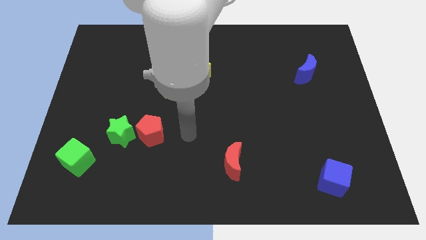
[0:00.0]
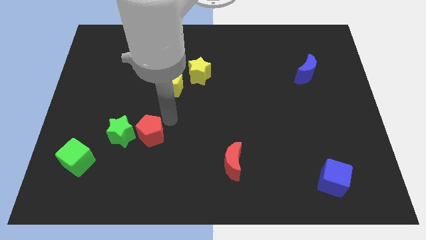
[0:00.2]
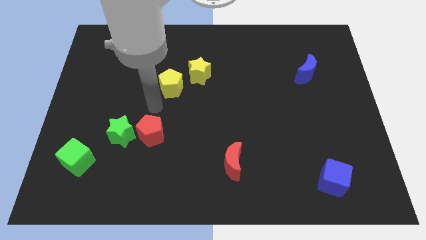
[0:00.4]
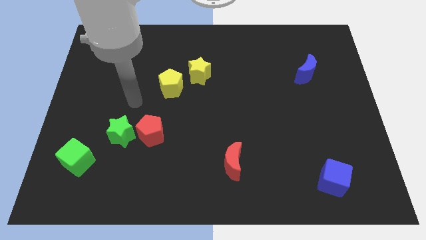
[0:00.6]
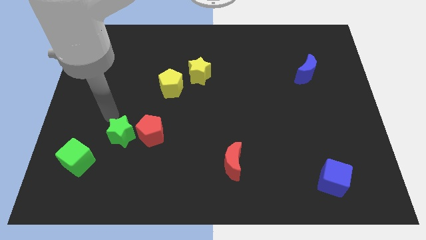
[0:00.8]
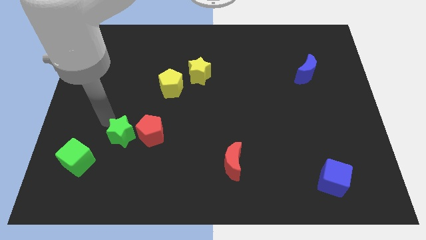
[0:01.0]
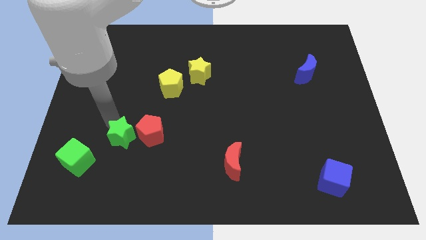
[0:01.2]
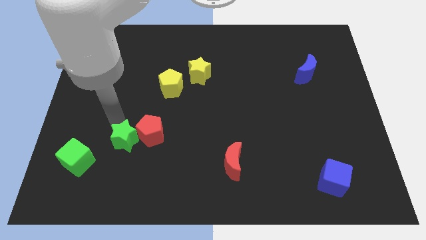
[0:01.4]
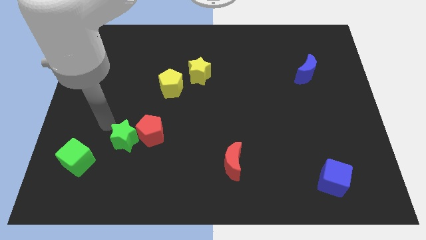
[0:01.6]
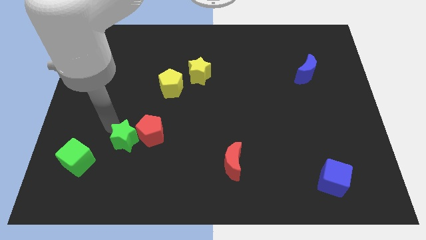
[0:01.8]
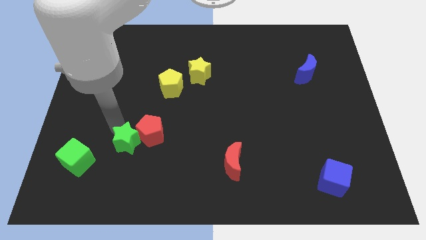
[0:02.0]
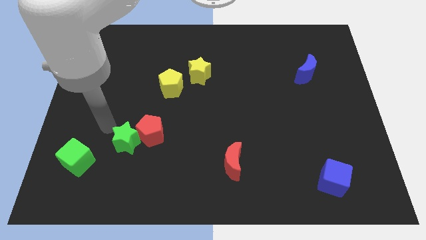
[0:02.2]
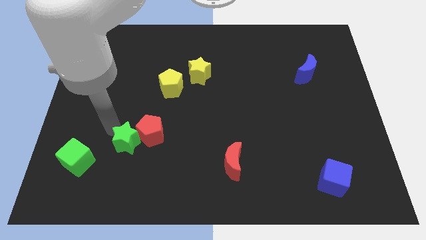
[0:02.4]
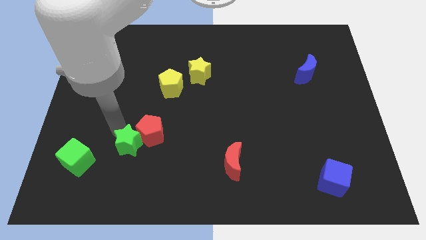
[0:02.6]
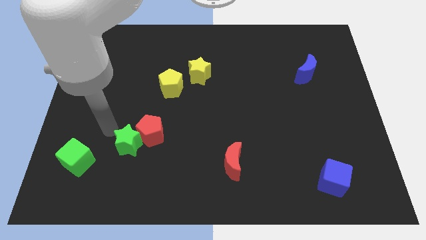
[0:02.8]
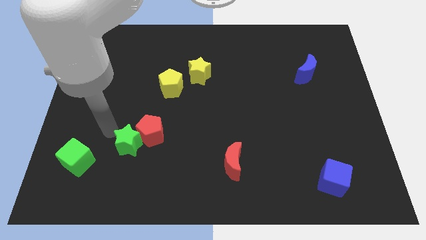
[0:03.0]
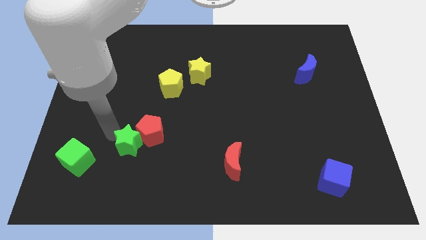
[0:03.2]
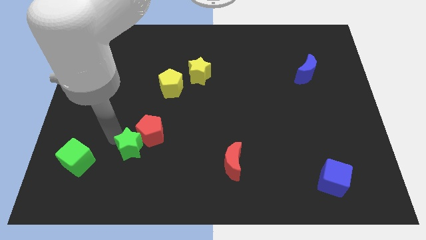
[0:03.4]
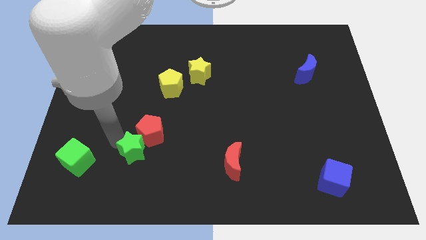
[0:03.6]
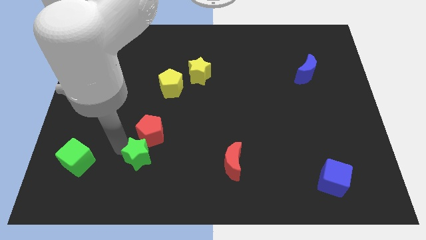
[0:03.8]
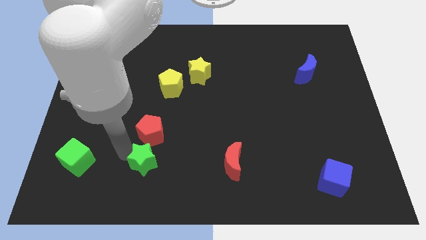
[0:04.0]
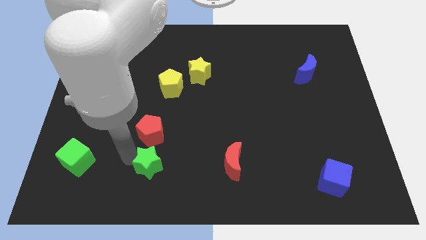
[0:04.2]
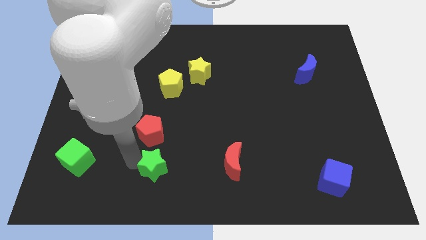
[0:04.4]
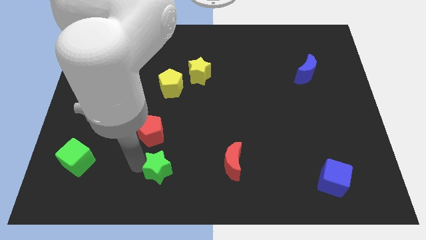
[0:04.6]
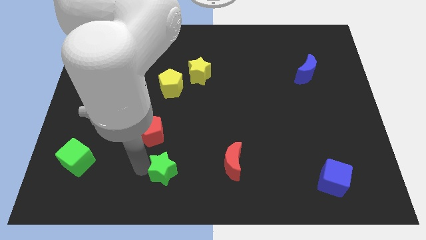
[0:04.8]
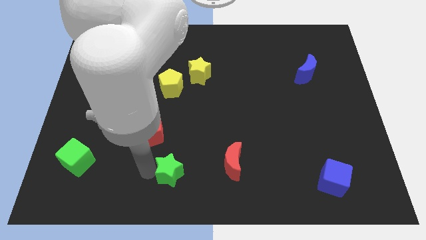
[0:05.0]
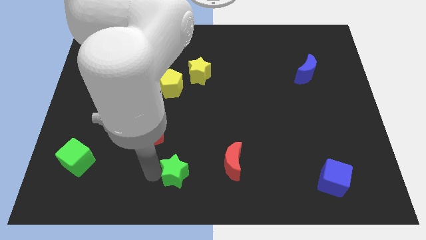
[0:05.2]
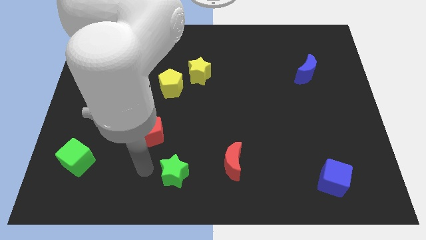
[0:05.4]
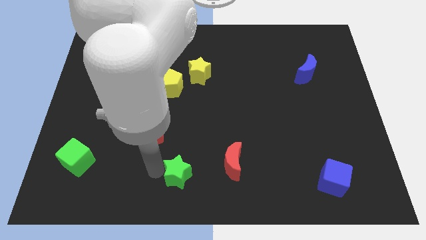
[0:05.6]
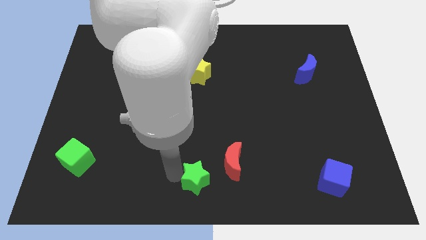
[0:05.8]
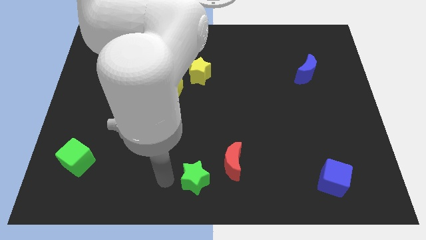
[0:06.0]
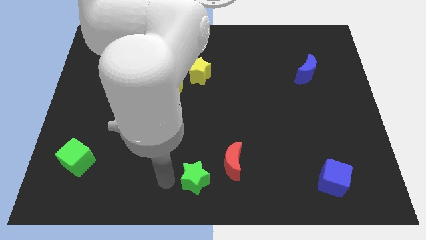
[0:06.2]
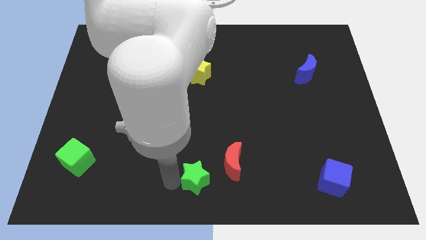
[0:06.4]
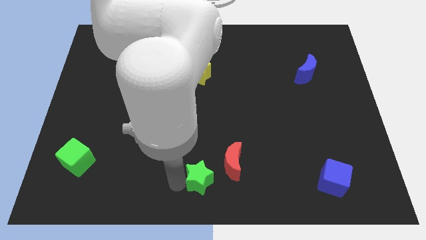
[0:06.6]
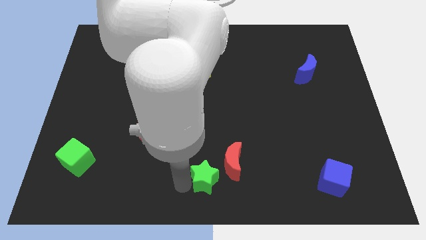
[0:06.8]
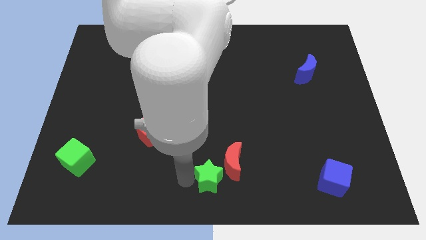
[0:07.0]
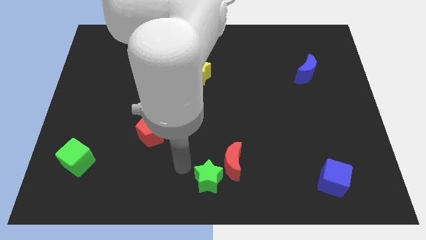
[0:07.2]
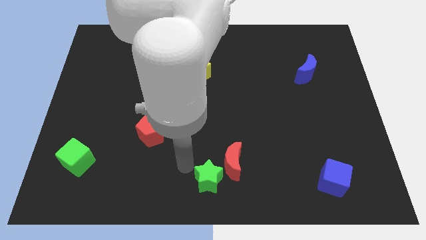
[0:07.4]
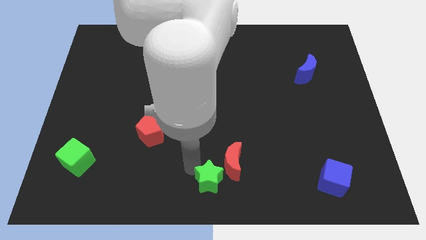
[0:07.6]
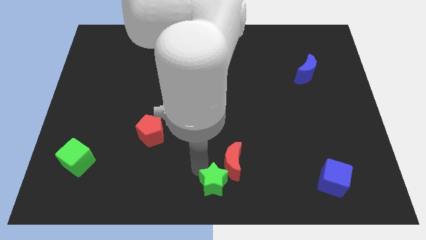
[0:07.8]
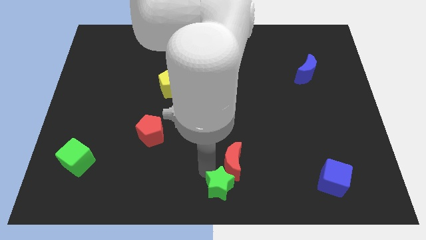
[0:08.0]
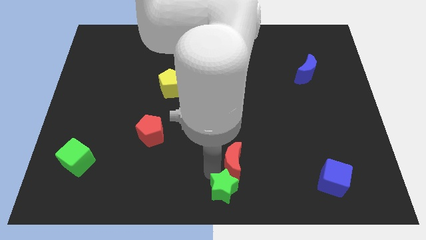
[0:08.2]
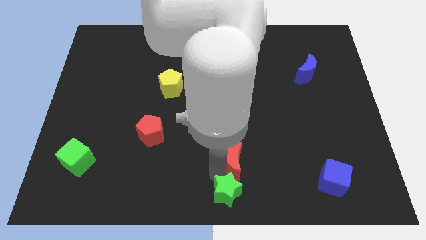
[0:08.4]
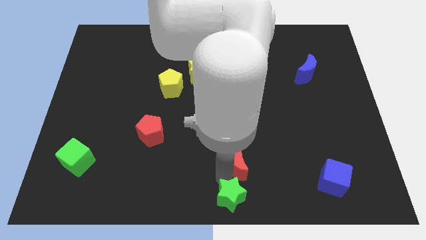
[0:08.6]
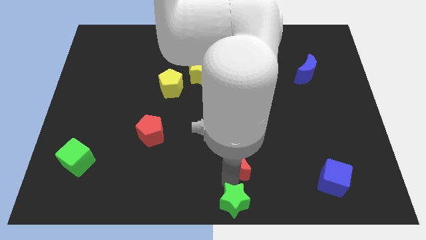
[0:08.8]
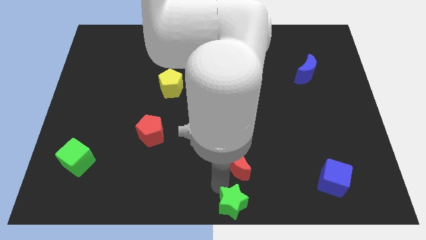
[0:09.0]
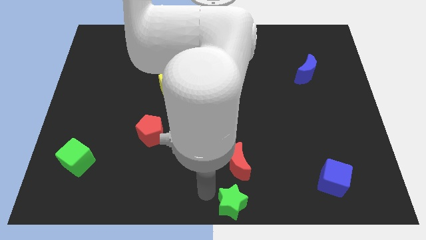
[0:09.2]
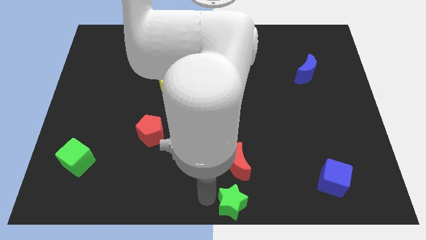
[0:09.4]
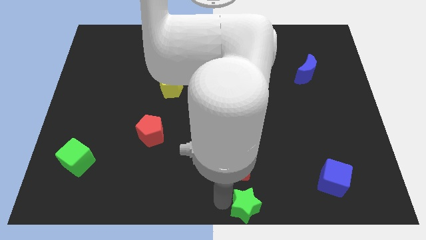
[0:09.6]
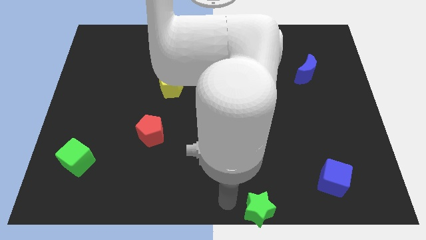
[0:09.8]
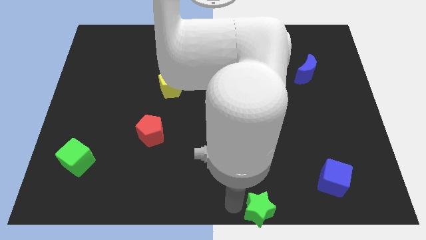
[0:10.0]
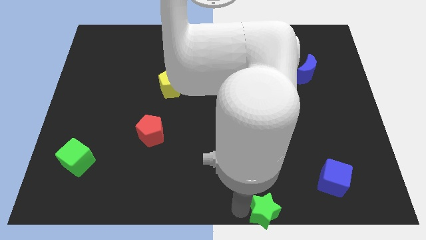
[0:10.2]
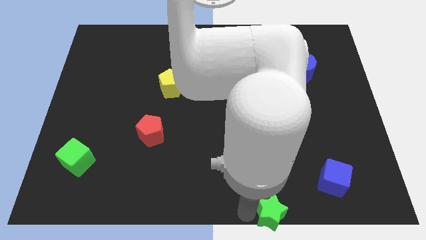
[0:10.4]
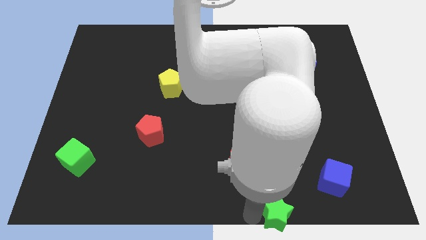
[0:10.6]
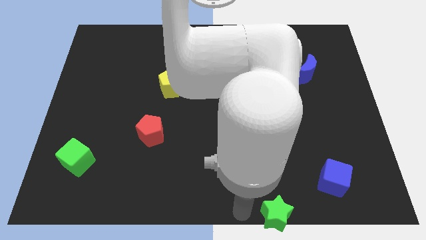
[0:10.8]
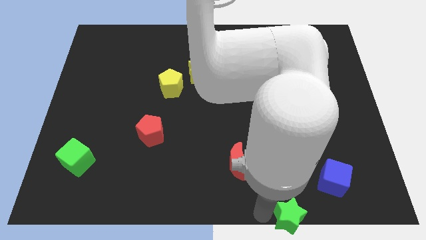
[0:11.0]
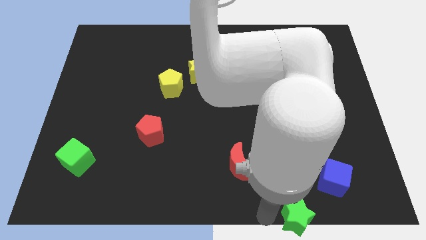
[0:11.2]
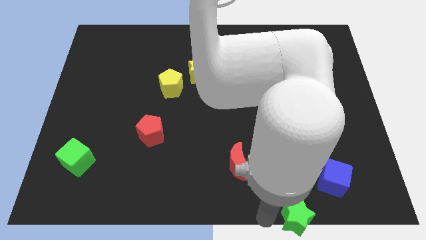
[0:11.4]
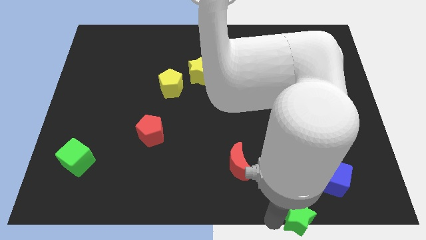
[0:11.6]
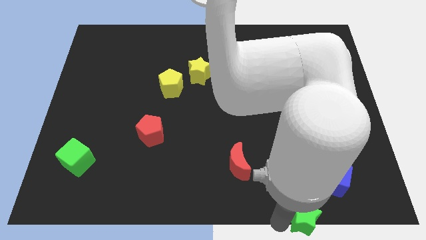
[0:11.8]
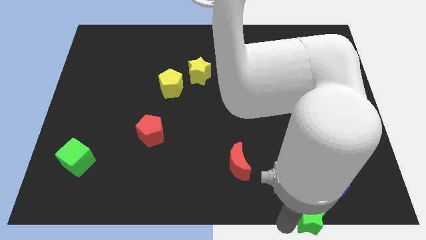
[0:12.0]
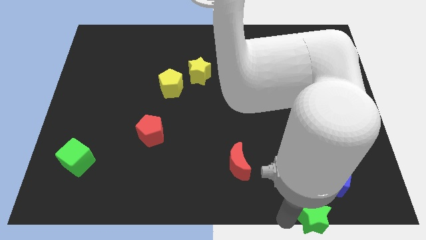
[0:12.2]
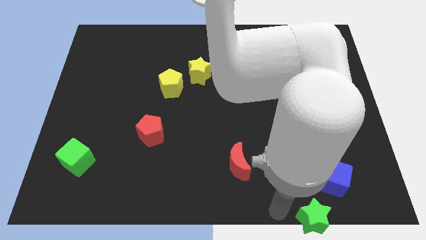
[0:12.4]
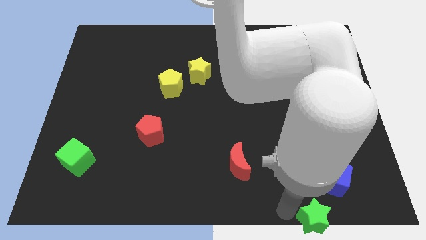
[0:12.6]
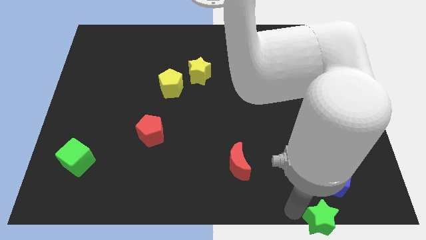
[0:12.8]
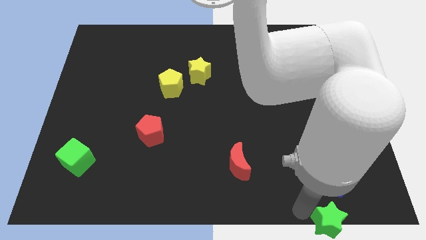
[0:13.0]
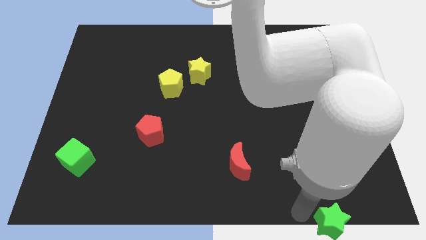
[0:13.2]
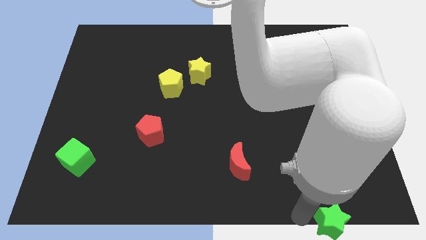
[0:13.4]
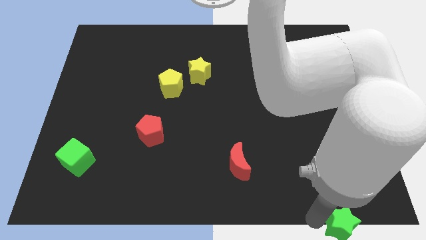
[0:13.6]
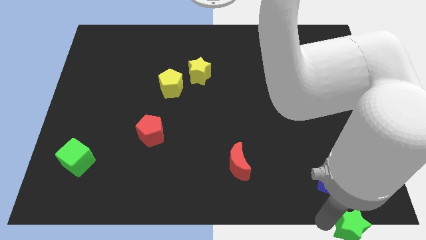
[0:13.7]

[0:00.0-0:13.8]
slide the green star to the bottom right corner
